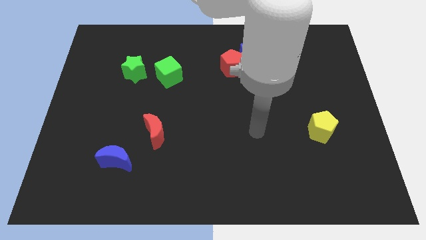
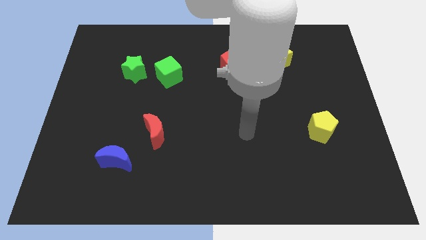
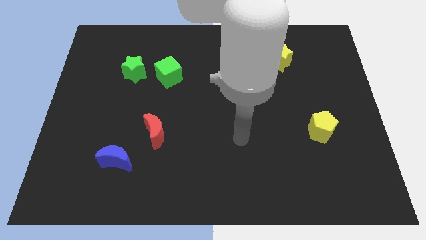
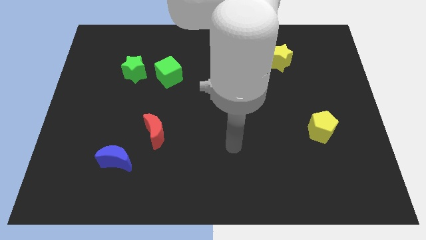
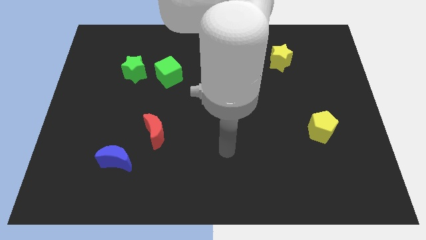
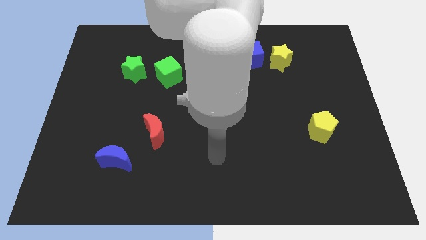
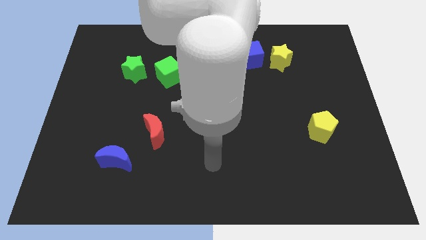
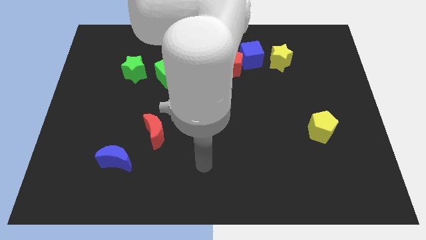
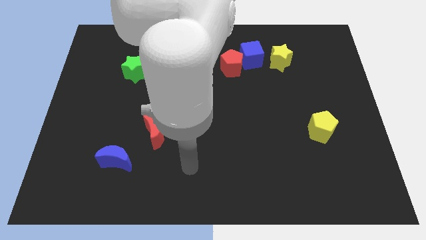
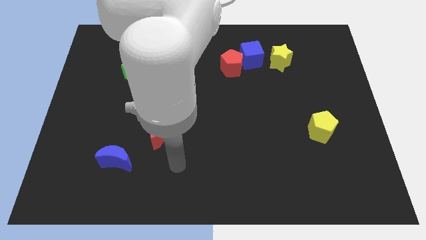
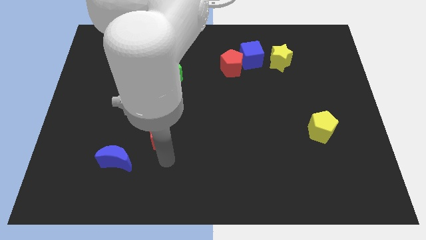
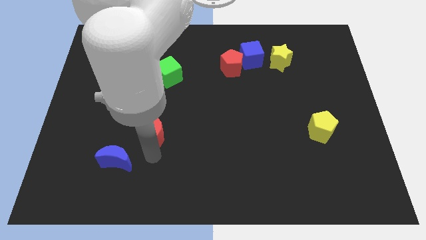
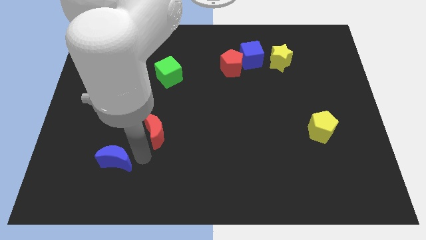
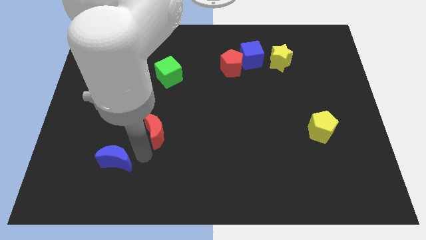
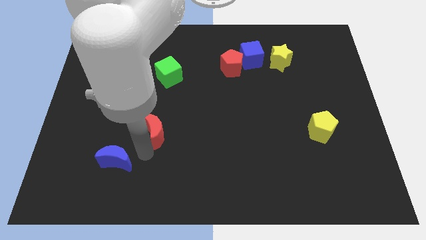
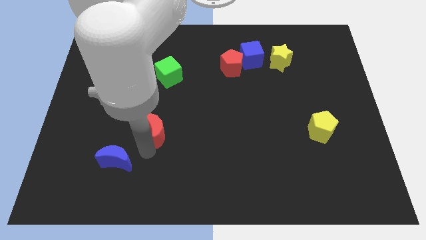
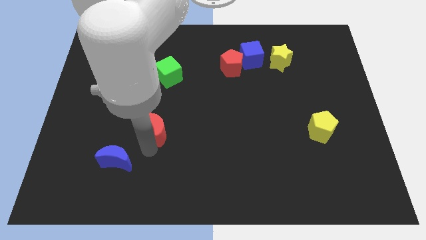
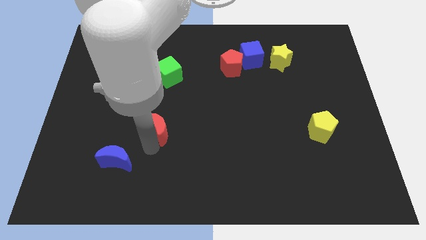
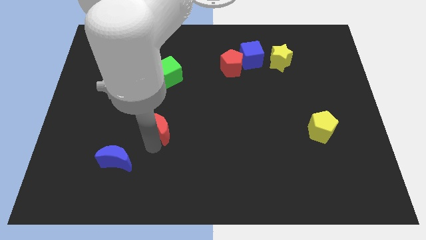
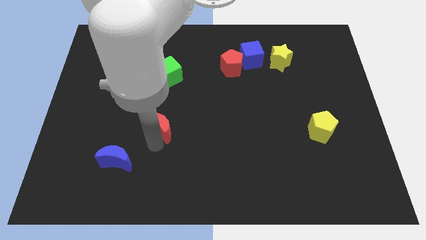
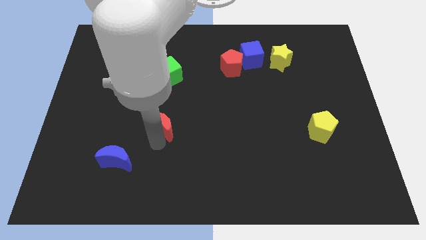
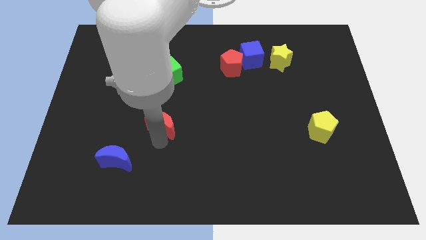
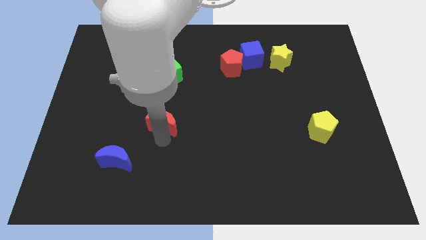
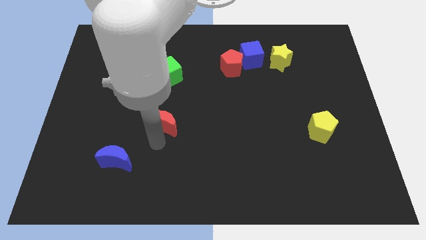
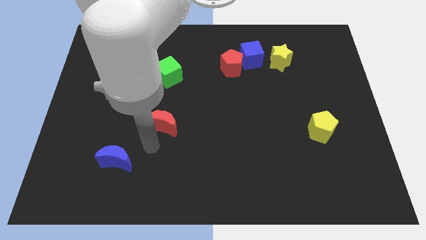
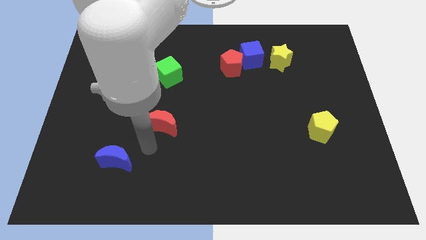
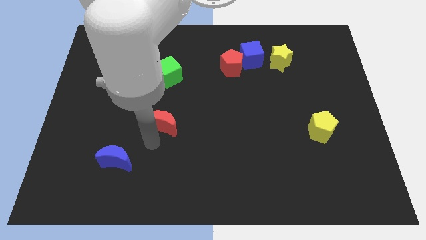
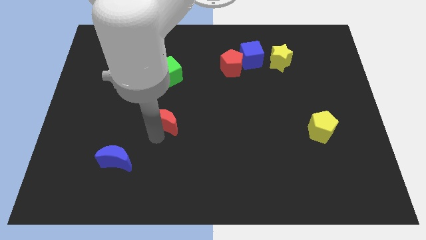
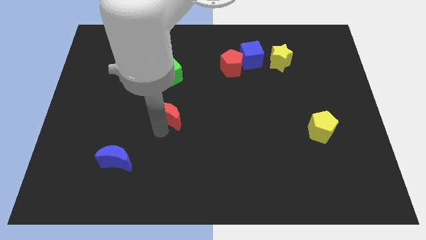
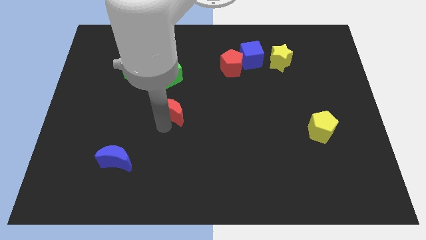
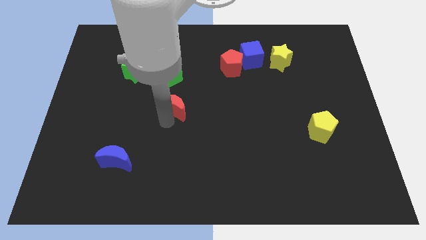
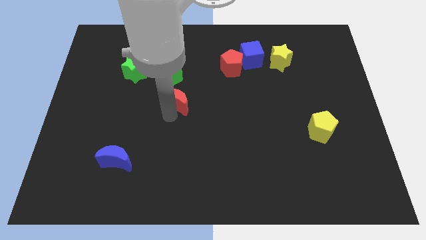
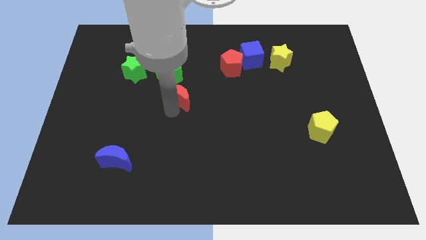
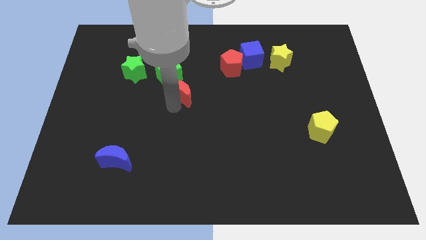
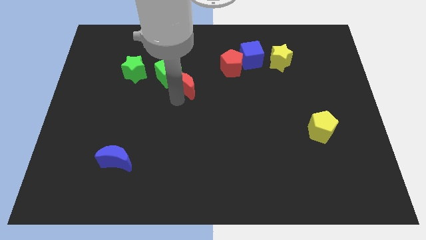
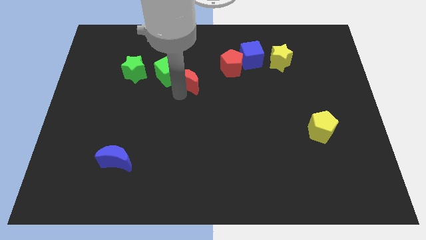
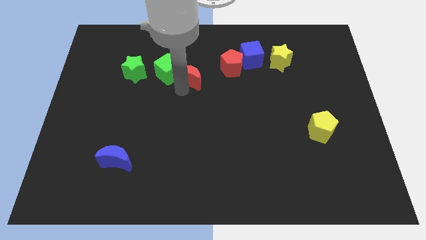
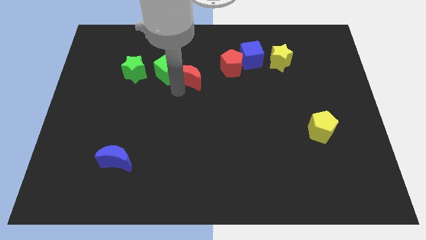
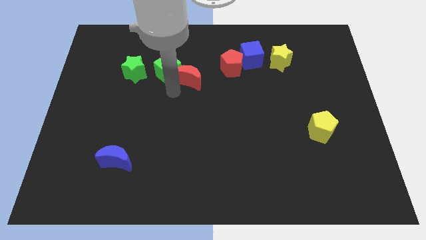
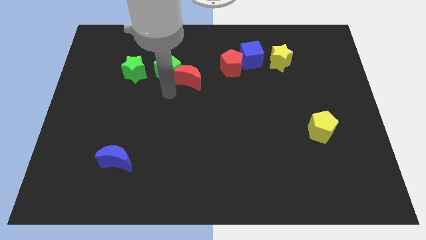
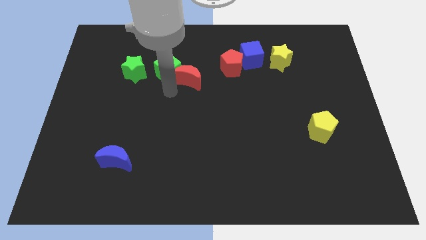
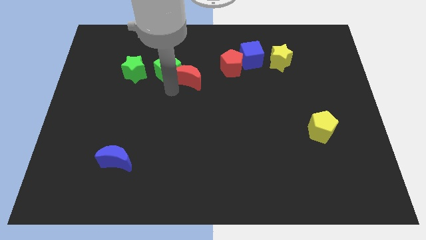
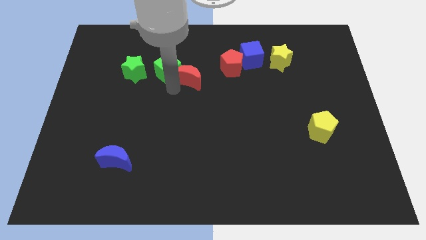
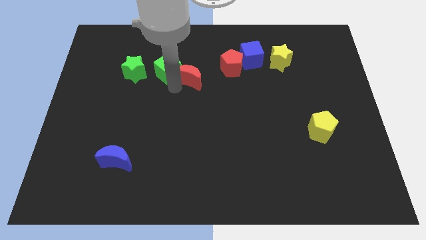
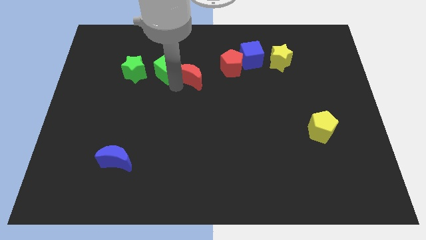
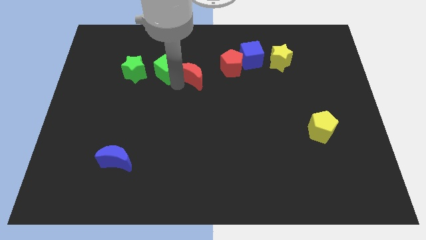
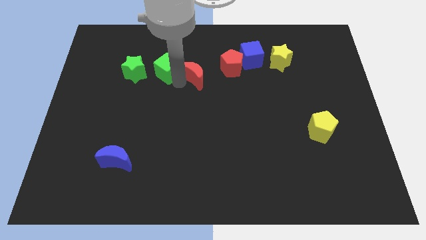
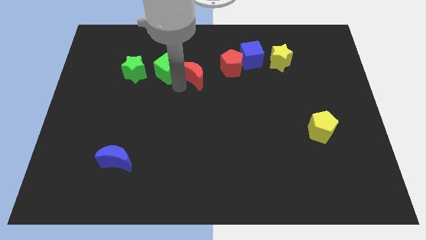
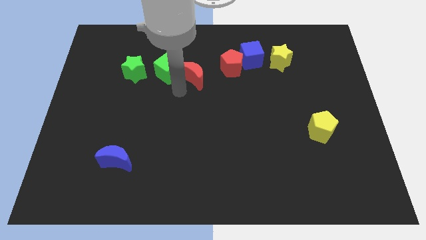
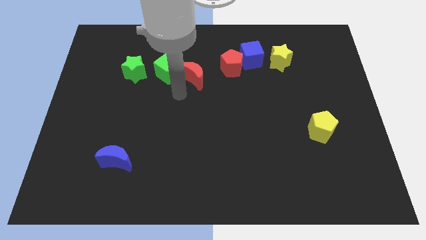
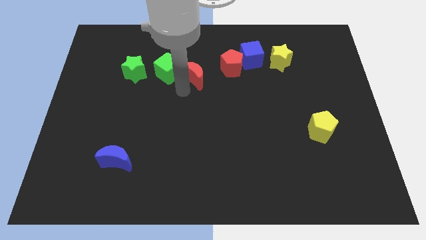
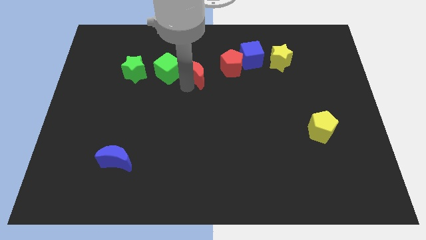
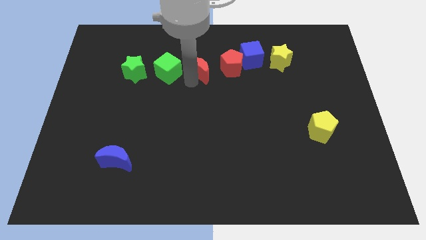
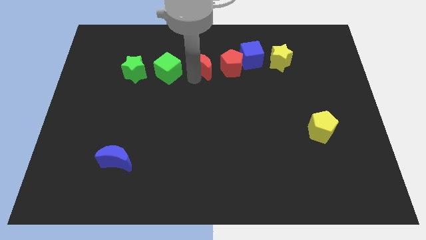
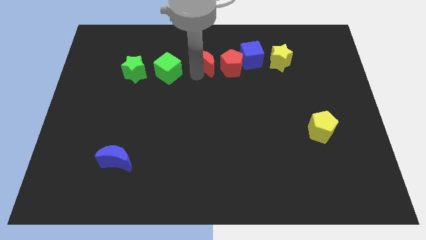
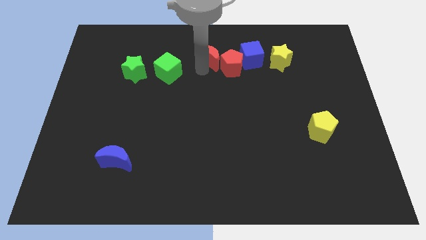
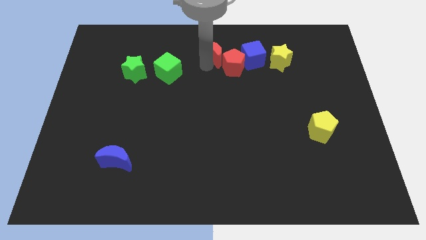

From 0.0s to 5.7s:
slide the red moon to the top

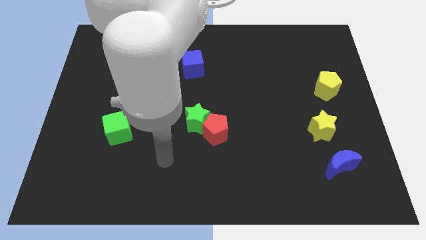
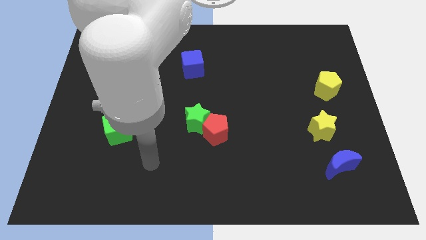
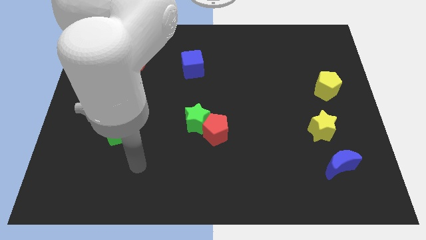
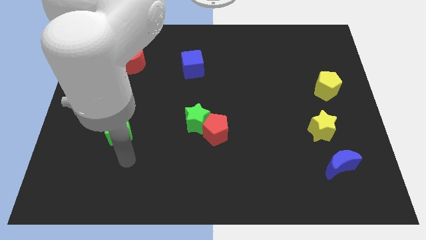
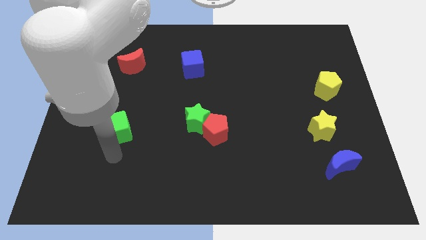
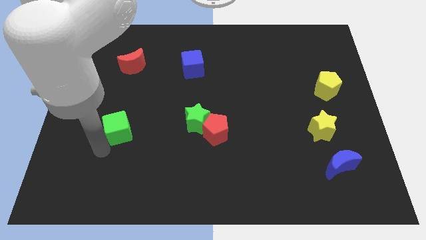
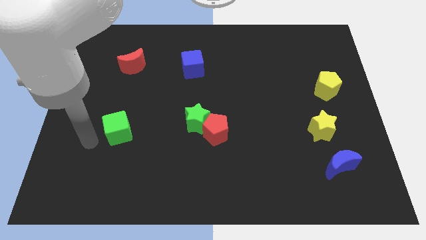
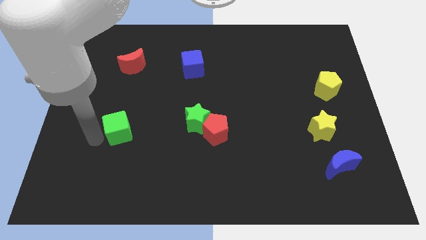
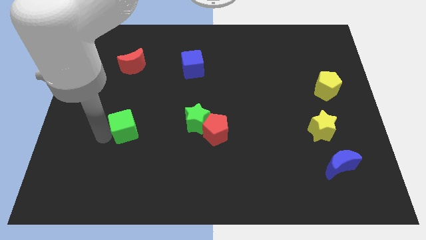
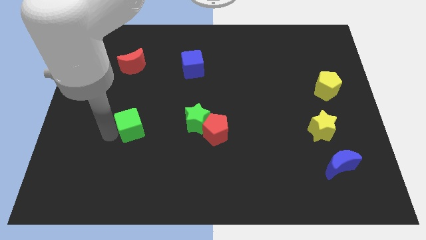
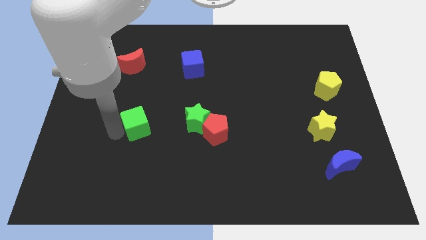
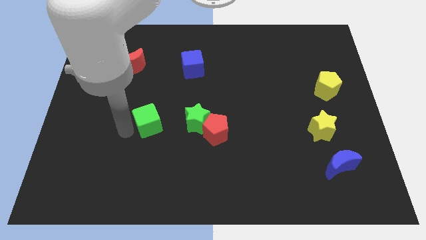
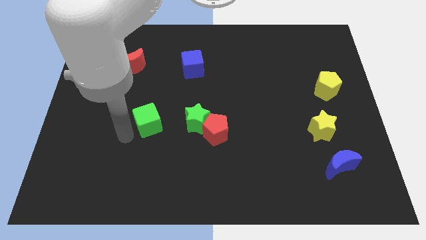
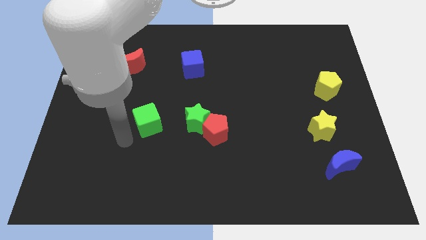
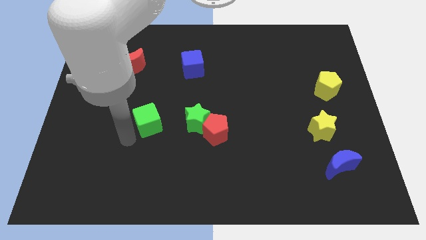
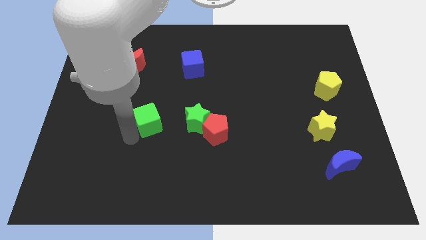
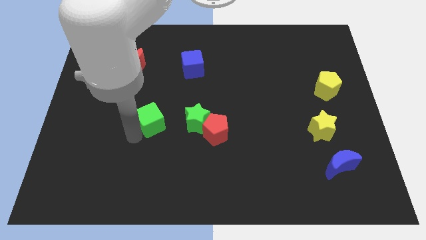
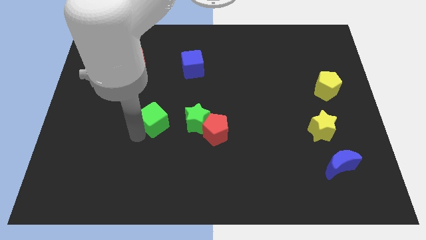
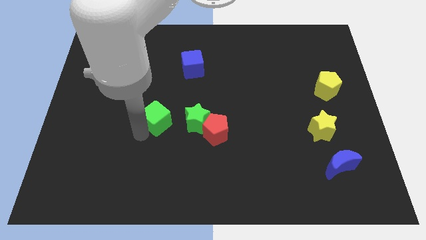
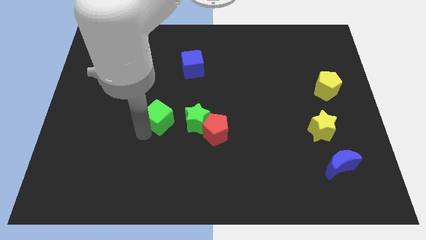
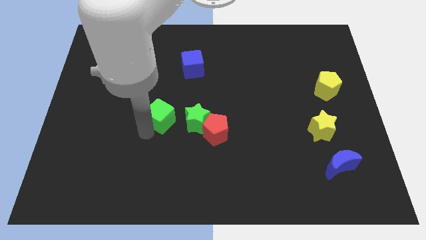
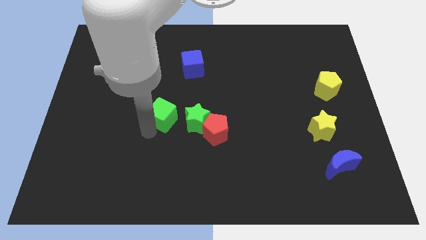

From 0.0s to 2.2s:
slide the green cube to the middle of the board
